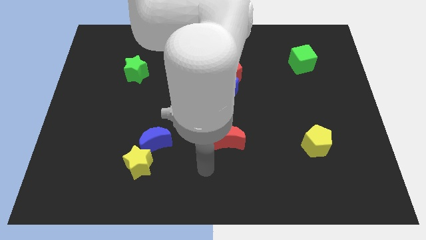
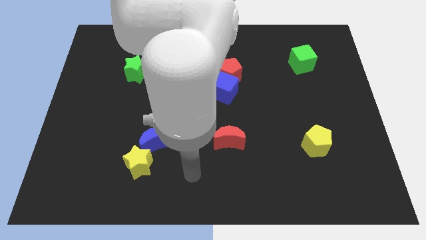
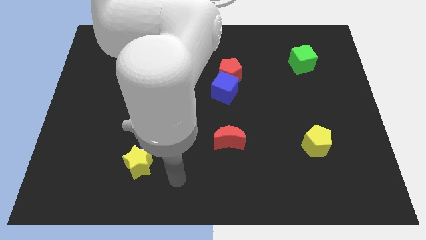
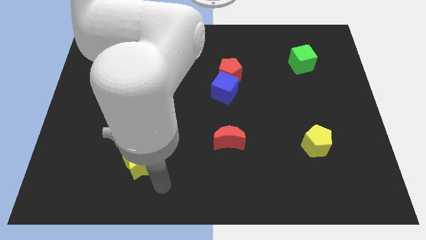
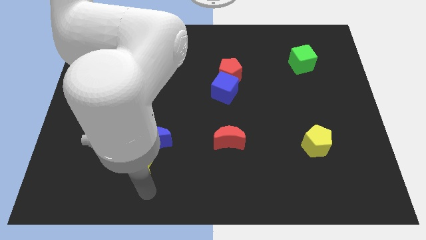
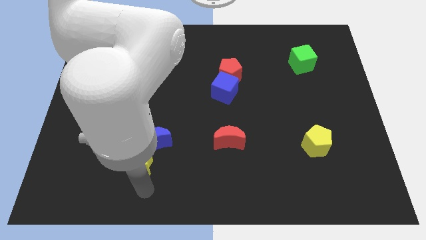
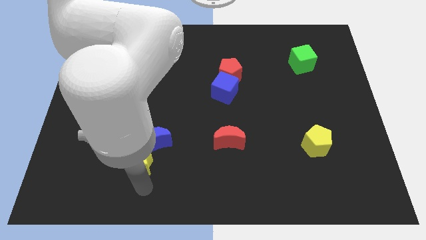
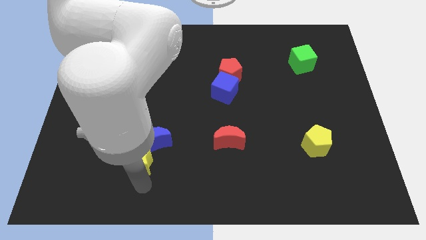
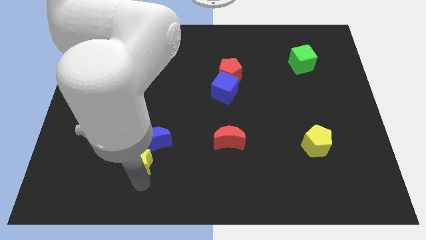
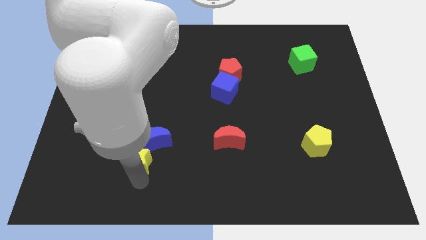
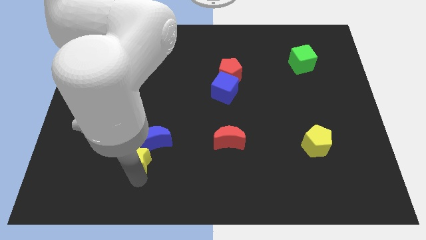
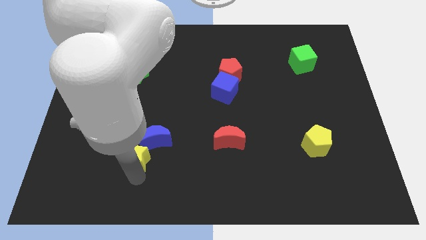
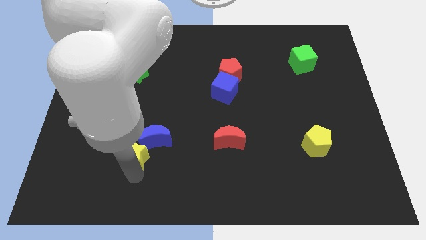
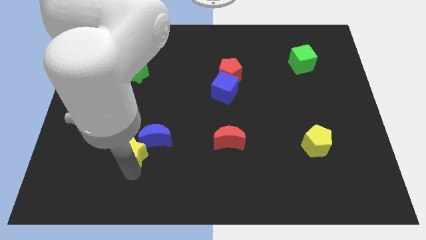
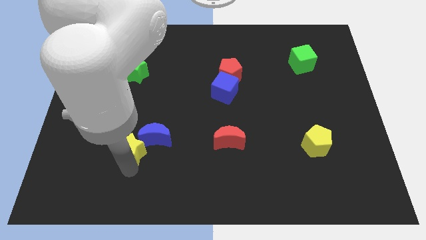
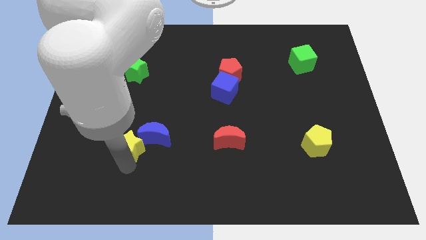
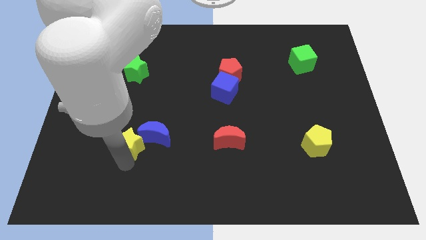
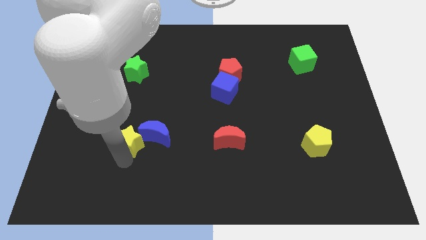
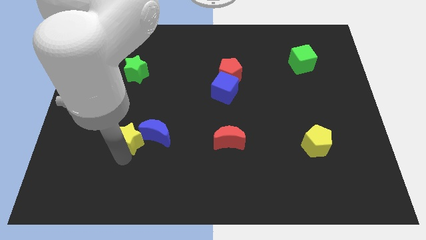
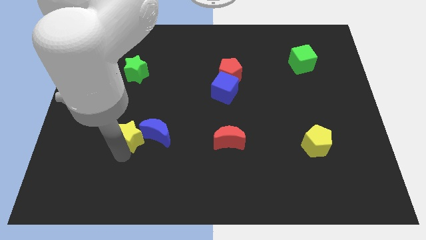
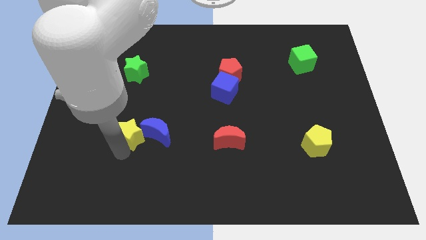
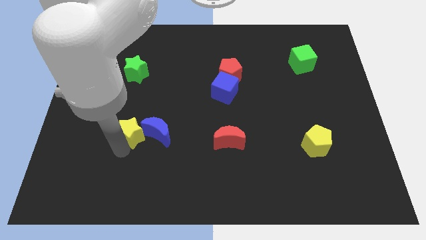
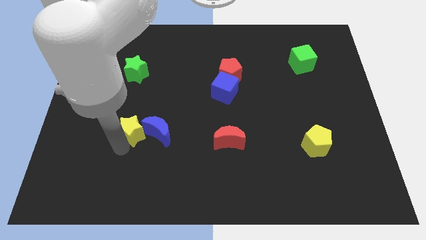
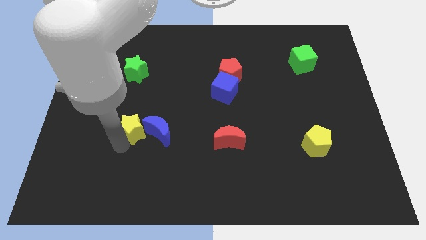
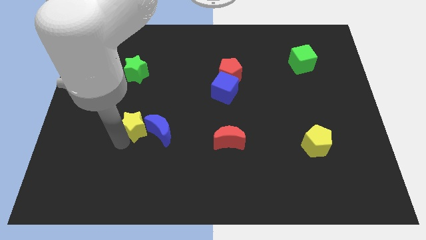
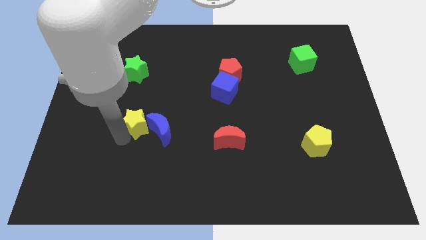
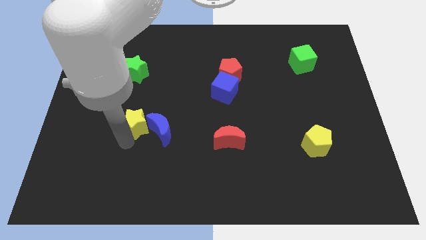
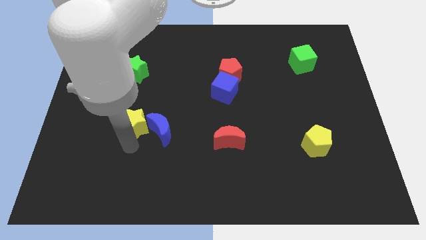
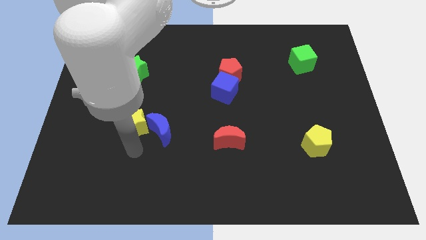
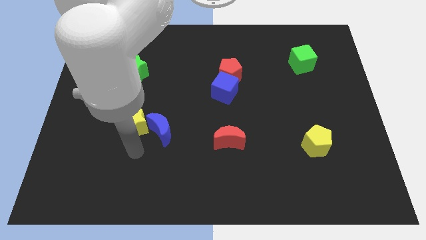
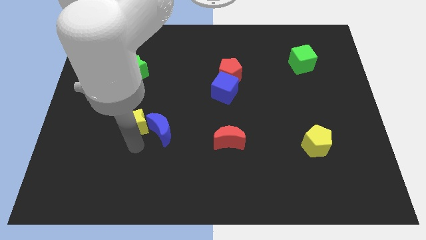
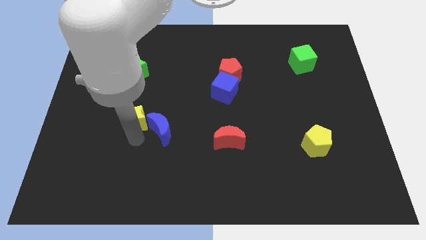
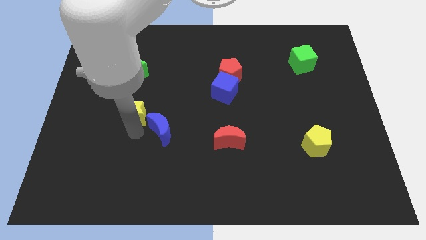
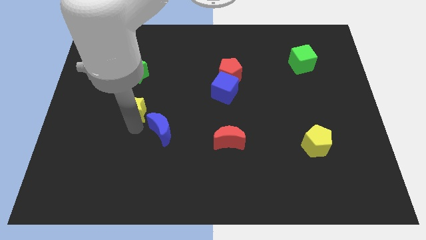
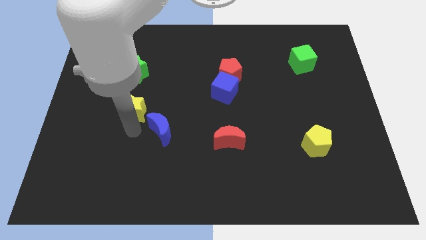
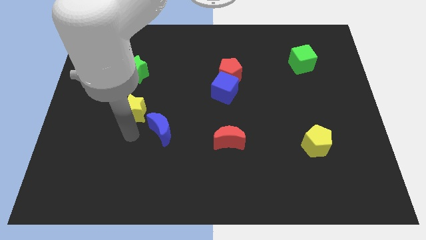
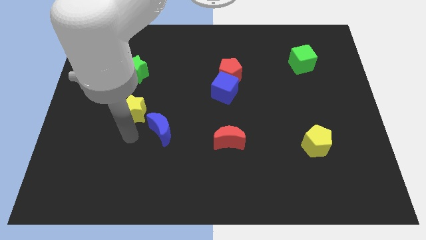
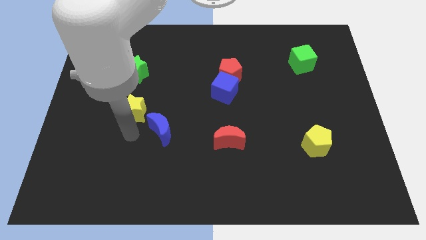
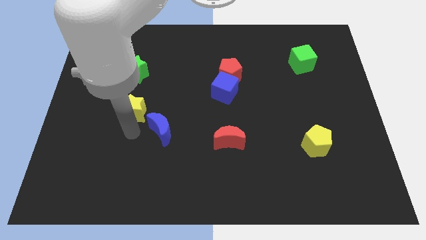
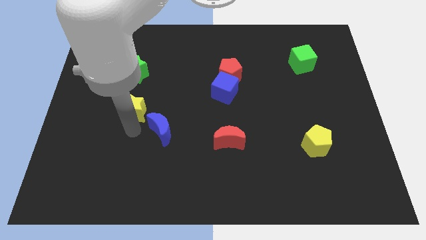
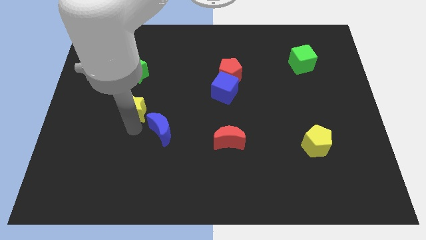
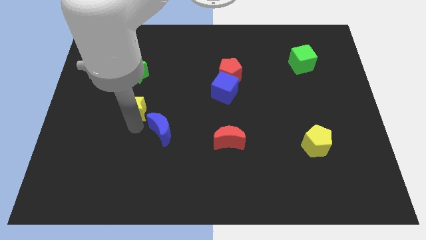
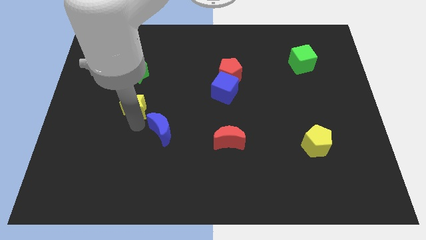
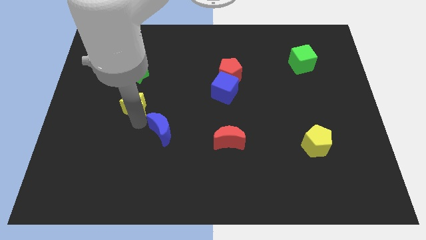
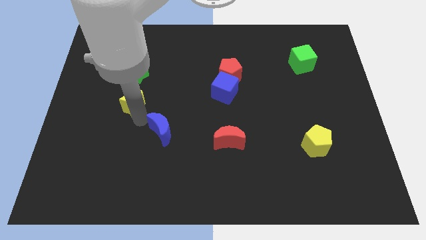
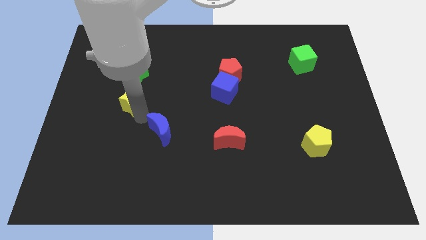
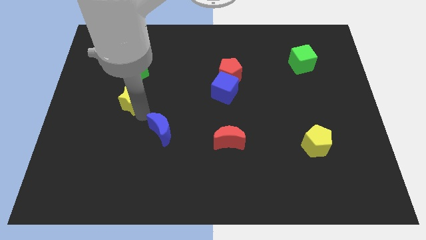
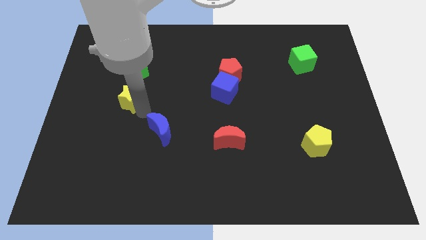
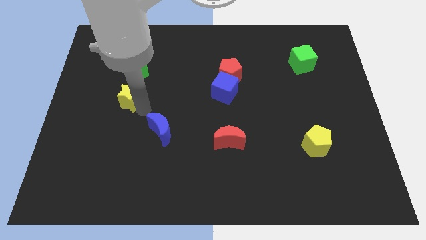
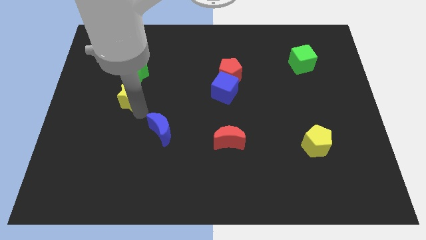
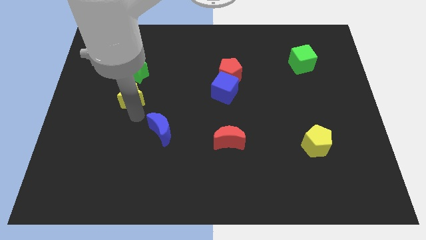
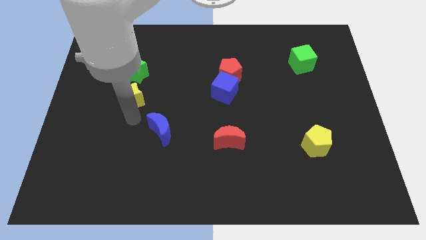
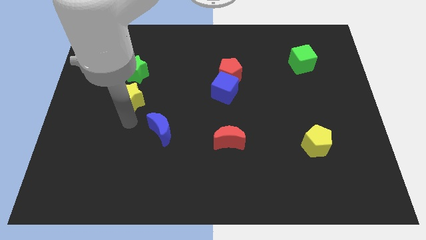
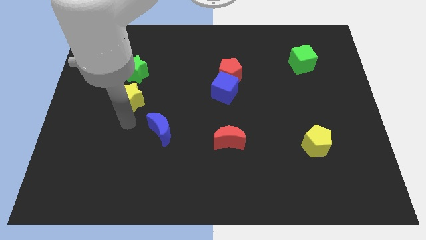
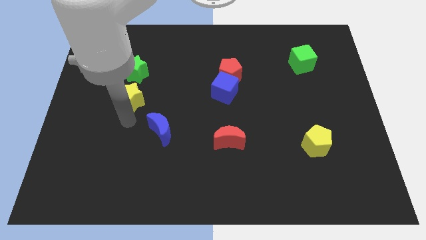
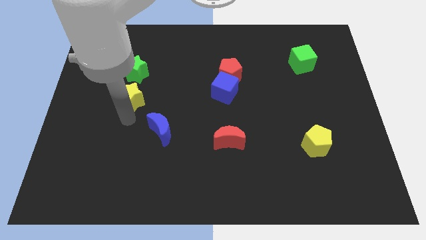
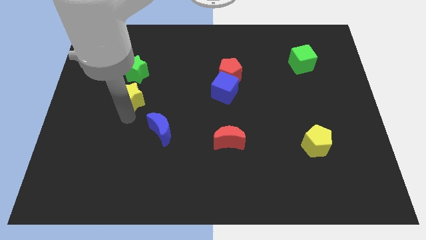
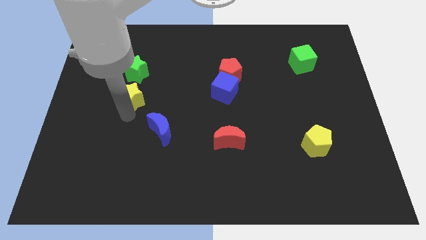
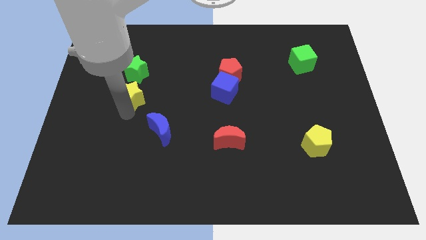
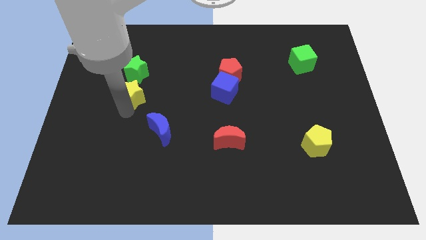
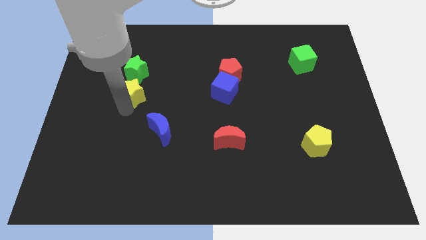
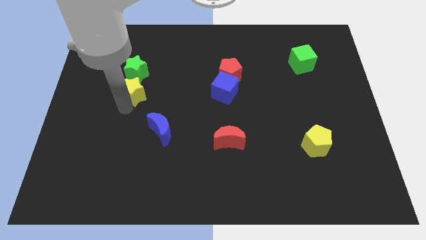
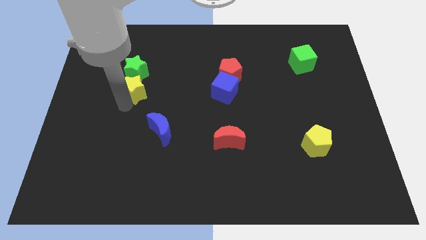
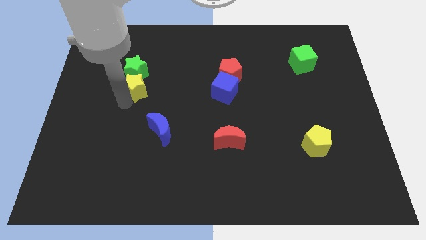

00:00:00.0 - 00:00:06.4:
push the yellow star close to the green star
